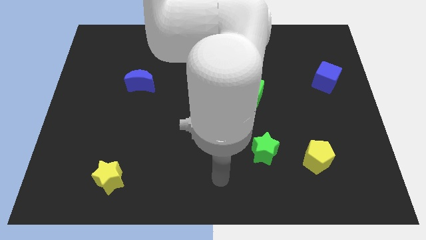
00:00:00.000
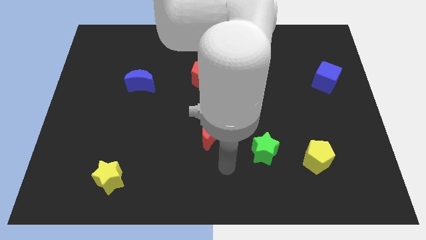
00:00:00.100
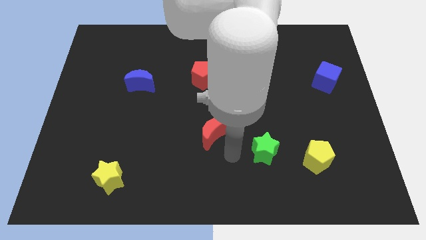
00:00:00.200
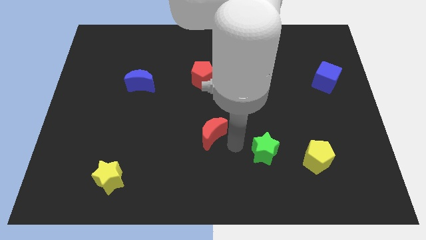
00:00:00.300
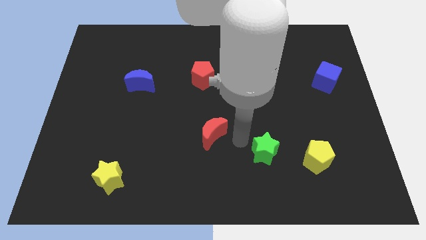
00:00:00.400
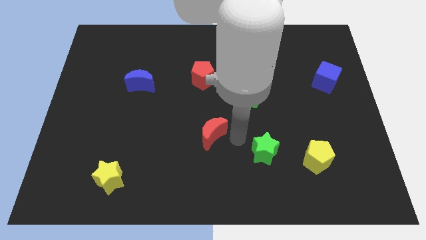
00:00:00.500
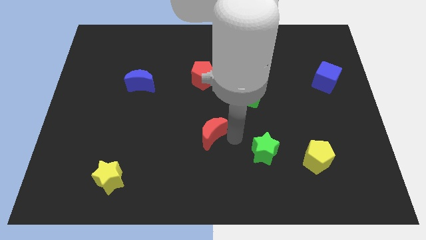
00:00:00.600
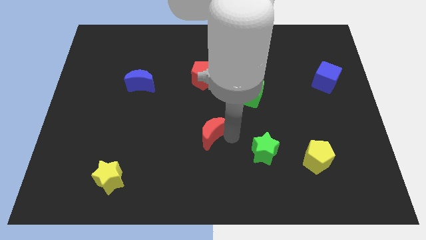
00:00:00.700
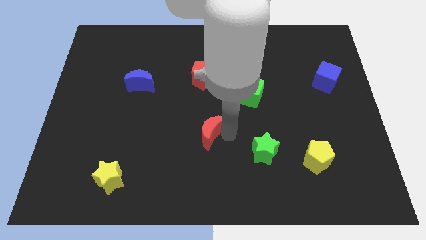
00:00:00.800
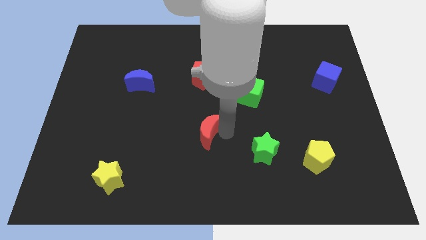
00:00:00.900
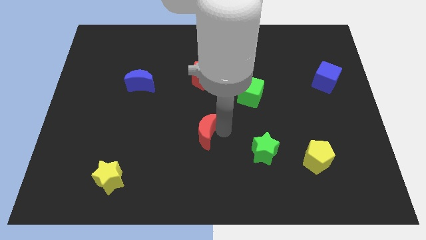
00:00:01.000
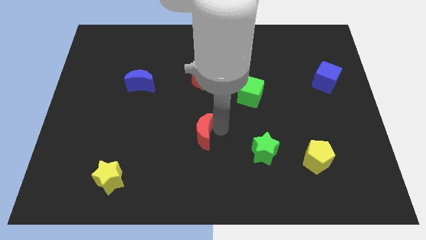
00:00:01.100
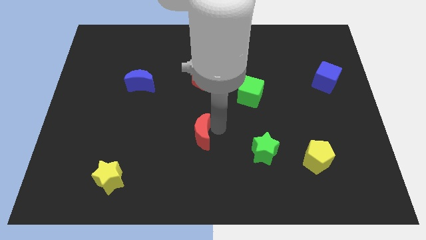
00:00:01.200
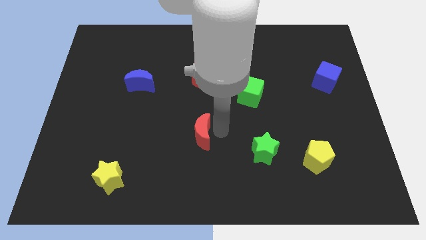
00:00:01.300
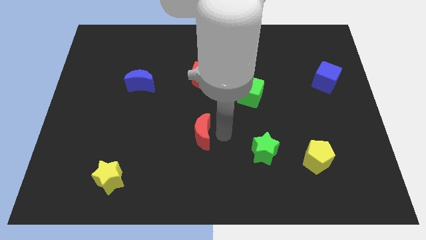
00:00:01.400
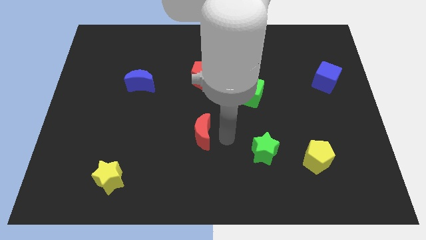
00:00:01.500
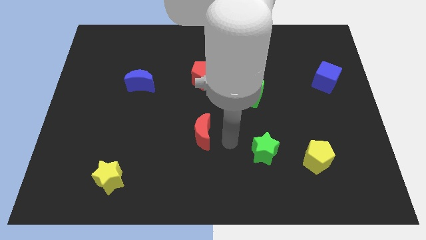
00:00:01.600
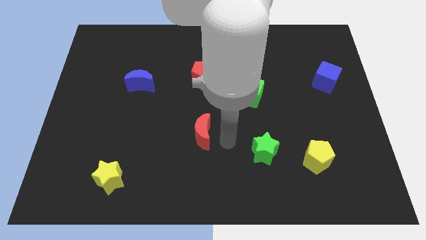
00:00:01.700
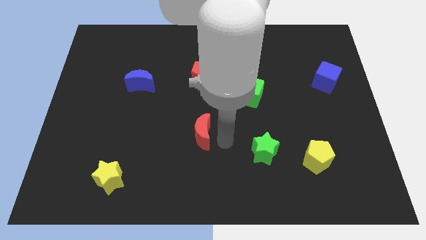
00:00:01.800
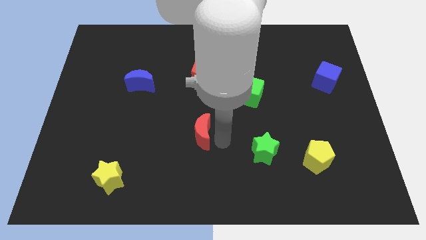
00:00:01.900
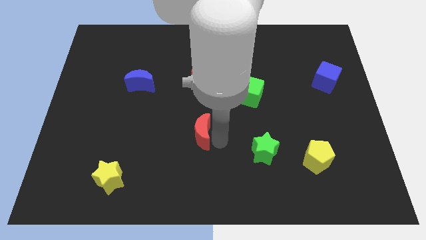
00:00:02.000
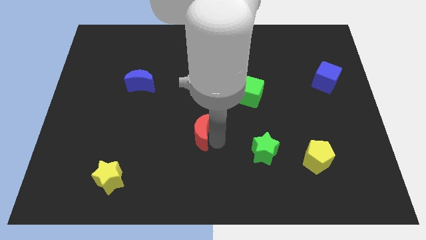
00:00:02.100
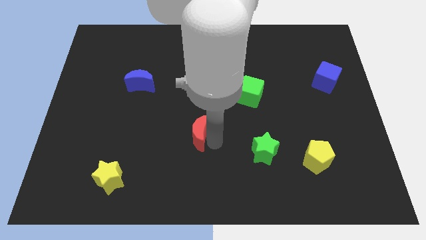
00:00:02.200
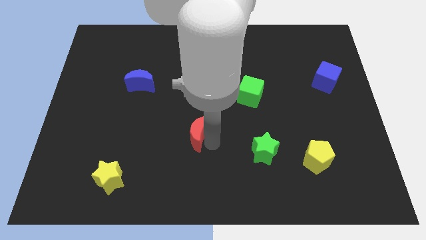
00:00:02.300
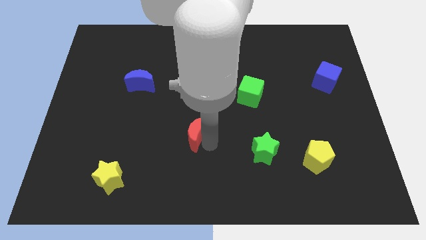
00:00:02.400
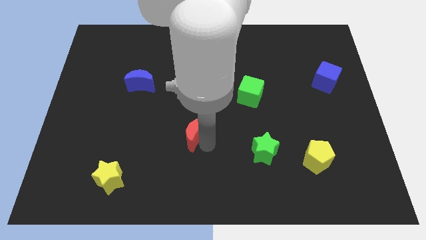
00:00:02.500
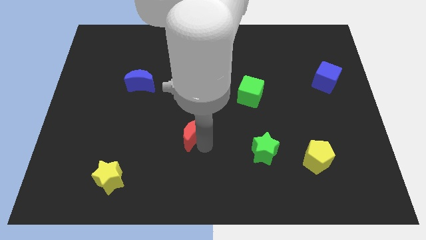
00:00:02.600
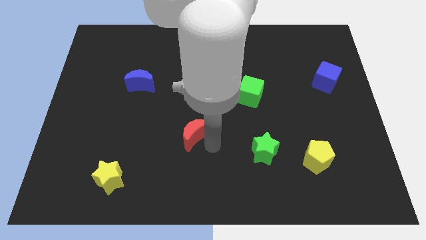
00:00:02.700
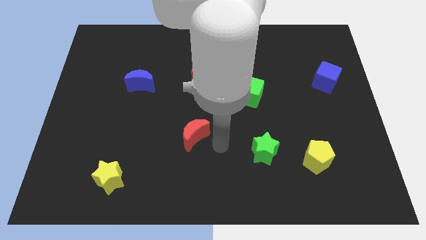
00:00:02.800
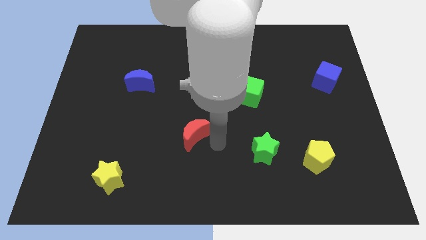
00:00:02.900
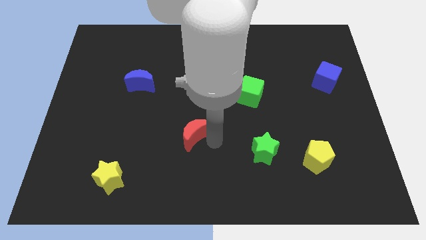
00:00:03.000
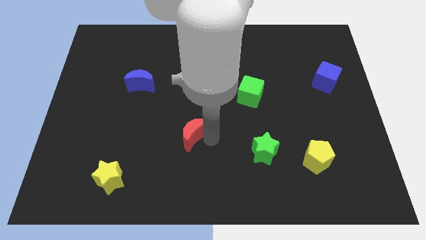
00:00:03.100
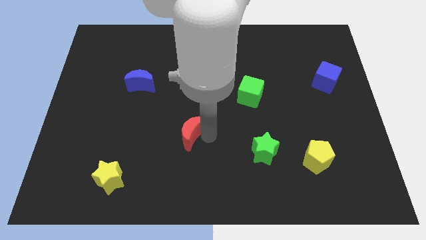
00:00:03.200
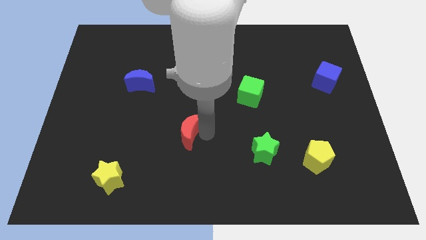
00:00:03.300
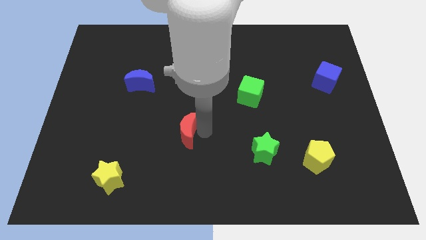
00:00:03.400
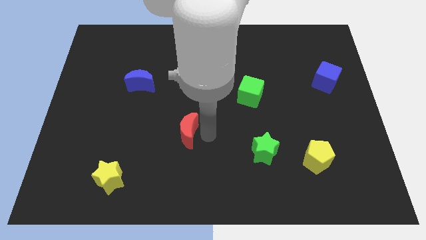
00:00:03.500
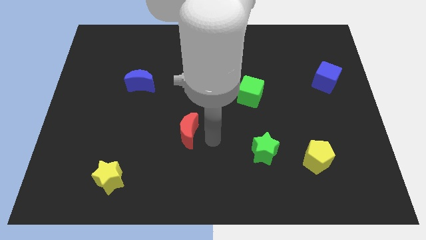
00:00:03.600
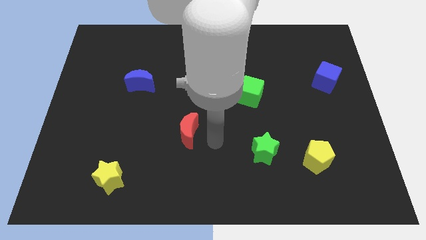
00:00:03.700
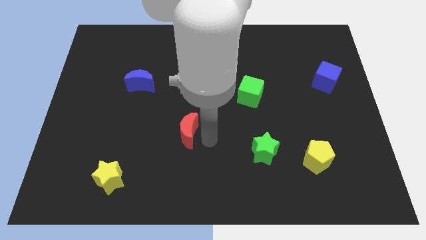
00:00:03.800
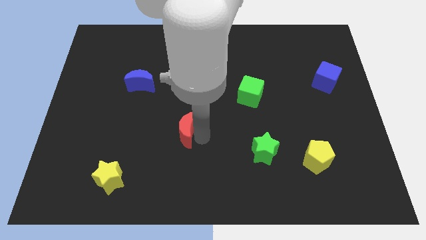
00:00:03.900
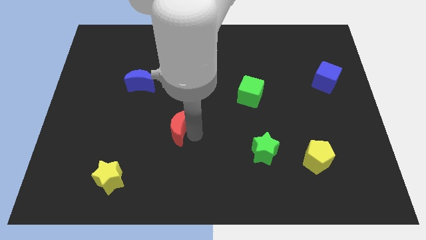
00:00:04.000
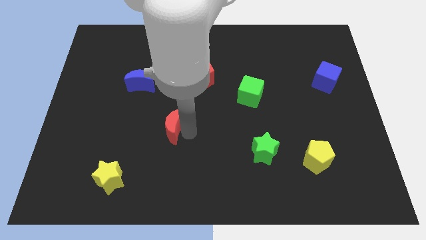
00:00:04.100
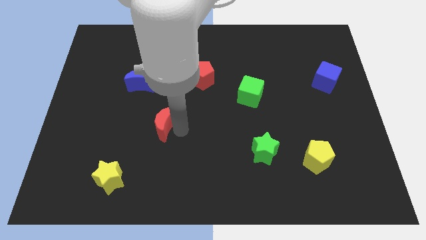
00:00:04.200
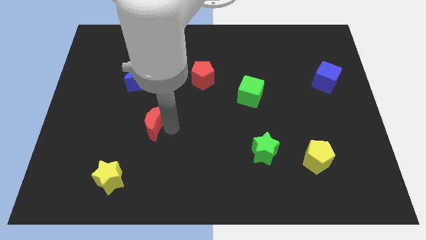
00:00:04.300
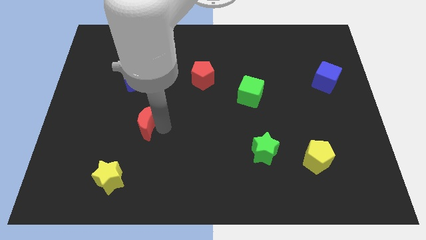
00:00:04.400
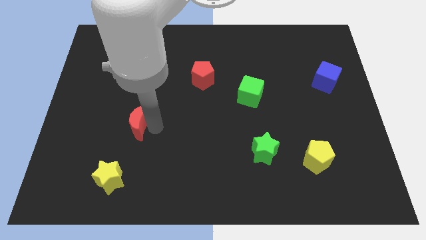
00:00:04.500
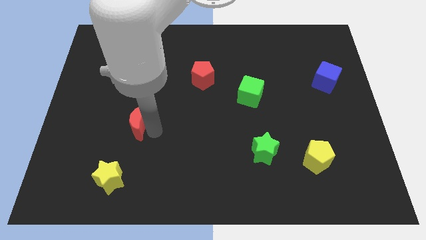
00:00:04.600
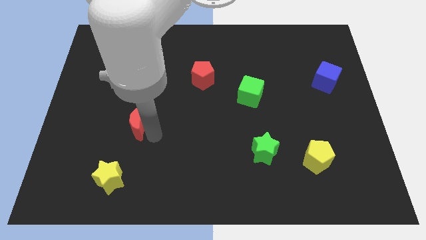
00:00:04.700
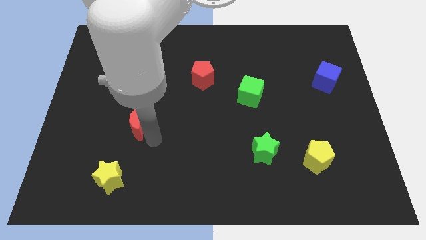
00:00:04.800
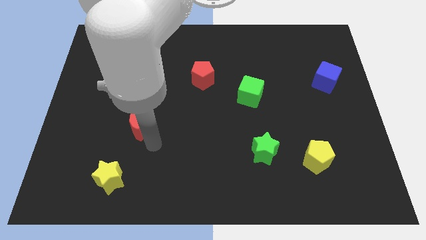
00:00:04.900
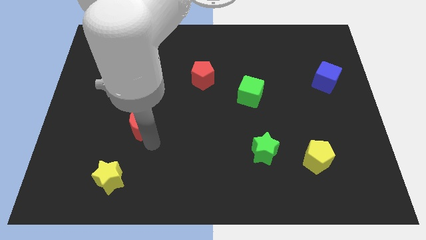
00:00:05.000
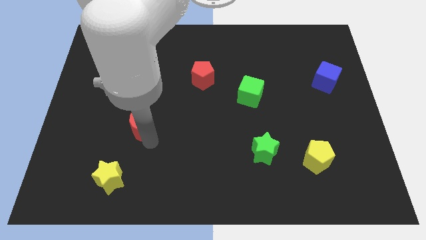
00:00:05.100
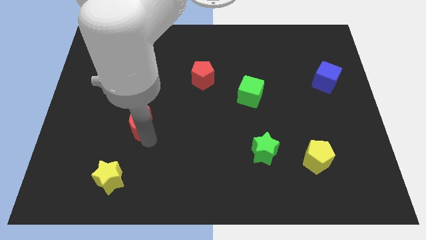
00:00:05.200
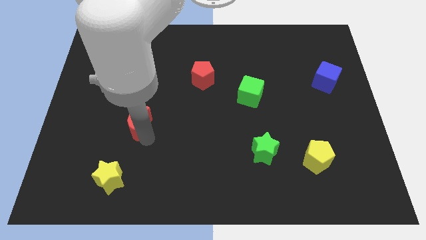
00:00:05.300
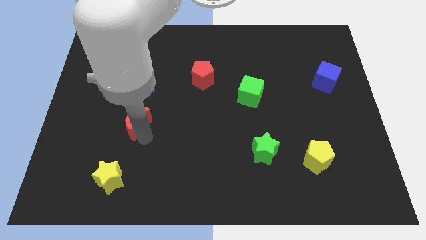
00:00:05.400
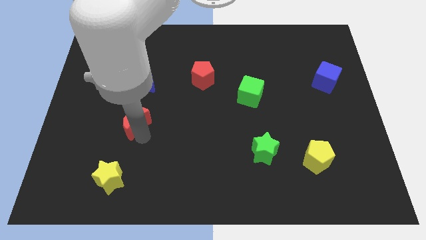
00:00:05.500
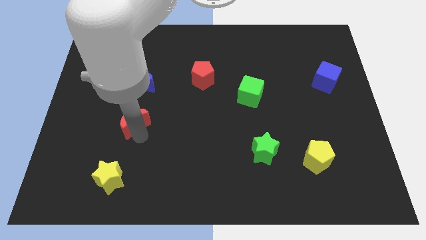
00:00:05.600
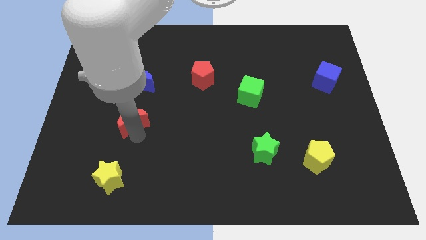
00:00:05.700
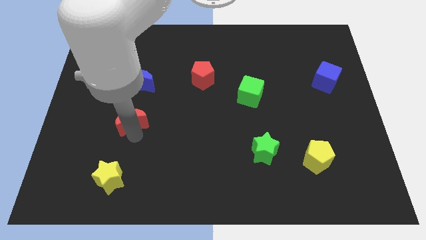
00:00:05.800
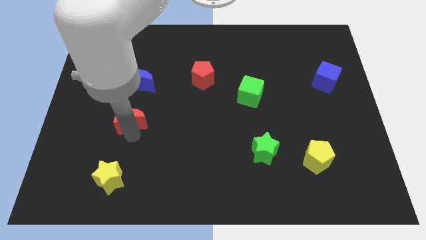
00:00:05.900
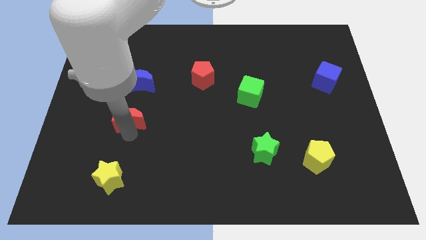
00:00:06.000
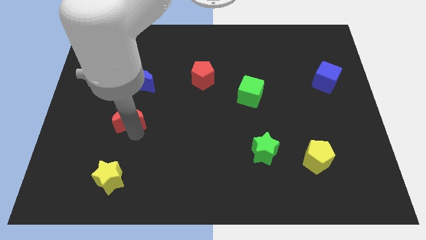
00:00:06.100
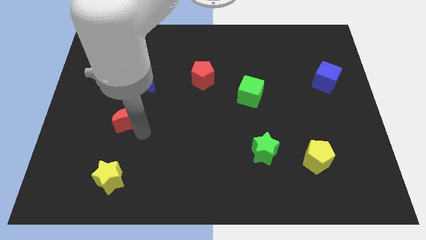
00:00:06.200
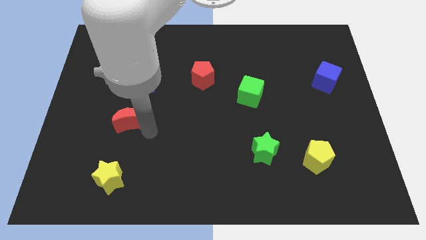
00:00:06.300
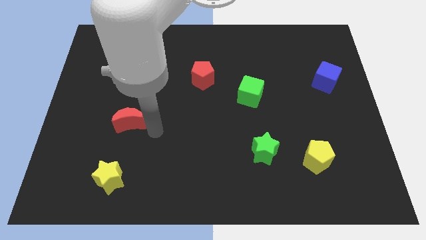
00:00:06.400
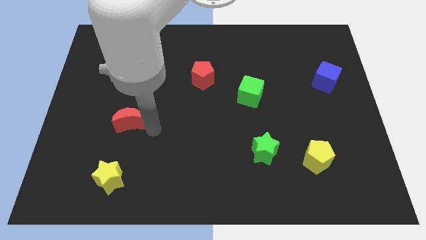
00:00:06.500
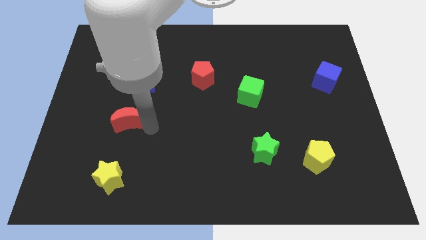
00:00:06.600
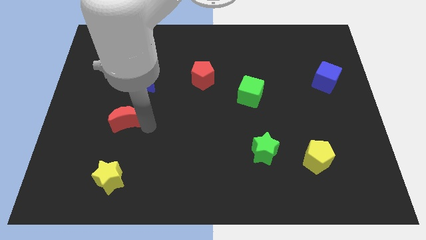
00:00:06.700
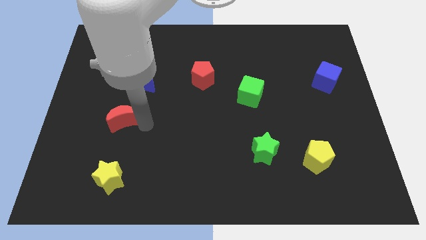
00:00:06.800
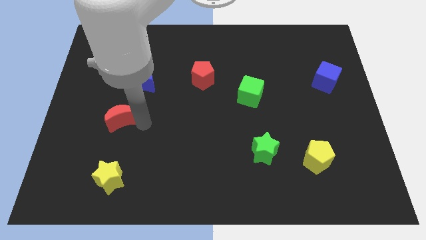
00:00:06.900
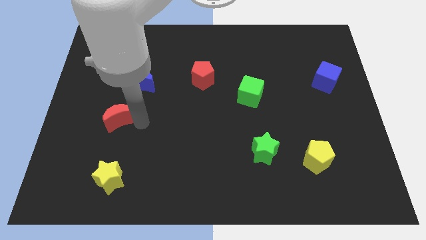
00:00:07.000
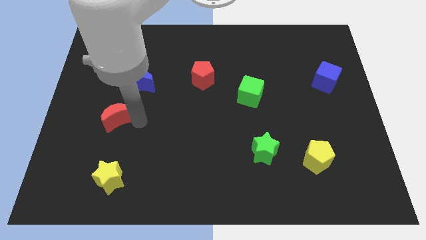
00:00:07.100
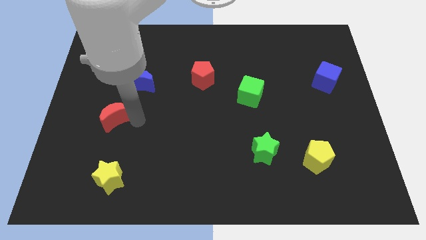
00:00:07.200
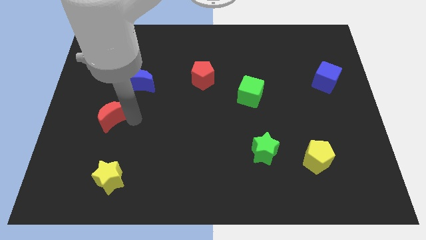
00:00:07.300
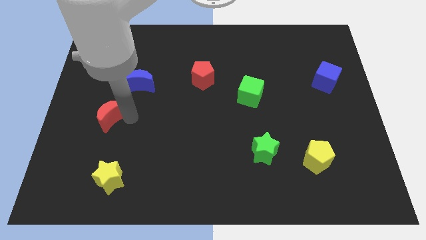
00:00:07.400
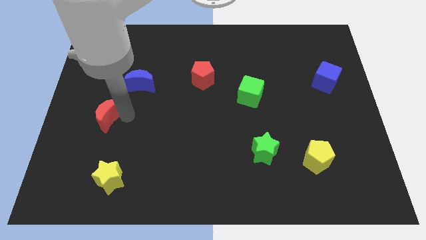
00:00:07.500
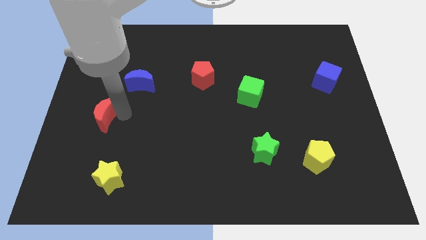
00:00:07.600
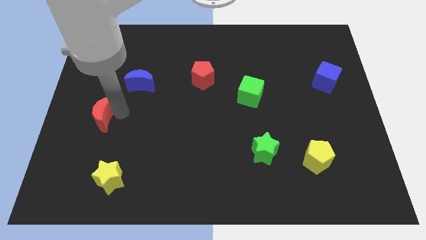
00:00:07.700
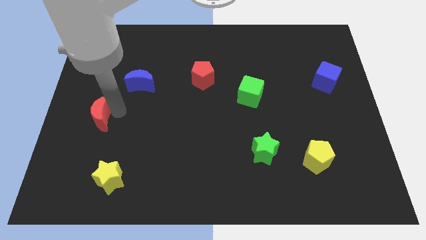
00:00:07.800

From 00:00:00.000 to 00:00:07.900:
push the red moon to the center left
